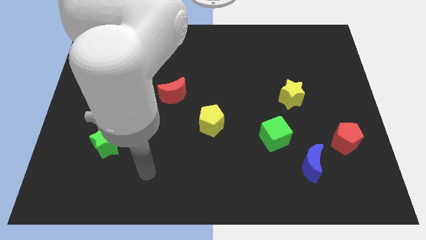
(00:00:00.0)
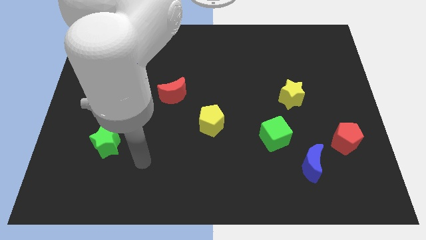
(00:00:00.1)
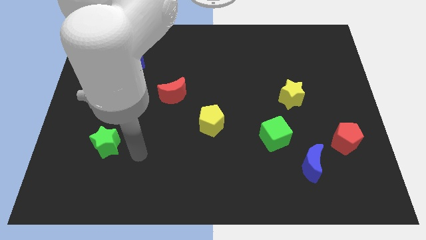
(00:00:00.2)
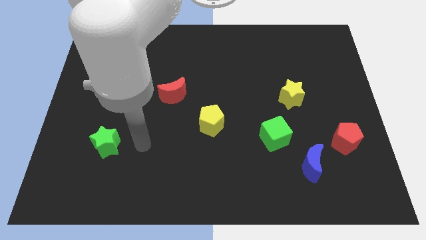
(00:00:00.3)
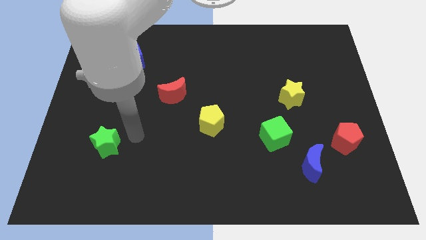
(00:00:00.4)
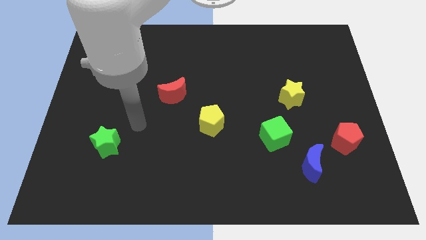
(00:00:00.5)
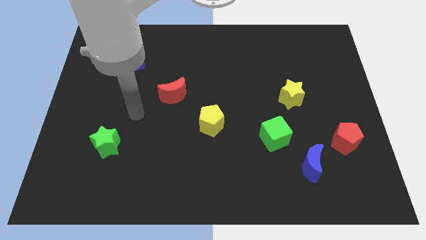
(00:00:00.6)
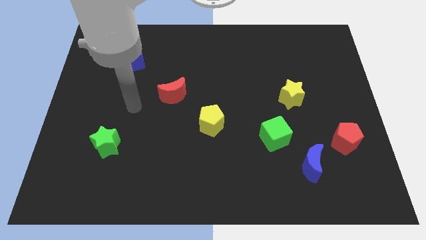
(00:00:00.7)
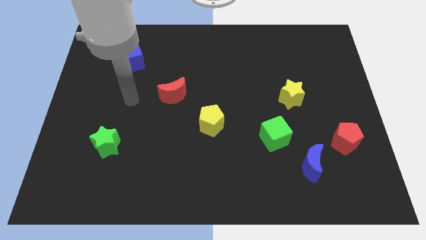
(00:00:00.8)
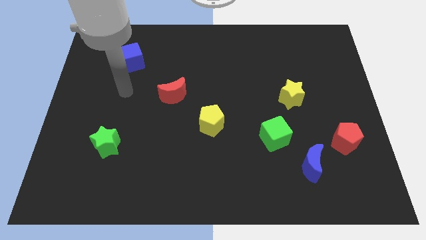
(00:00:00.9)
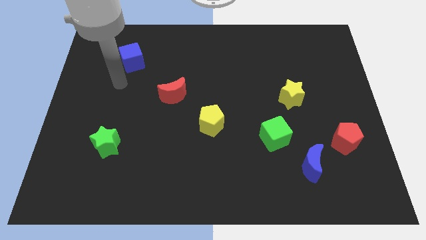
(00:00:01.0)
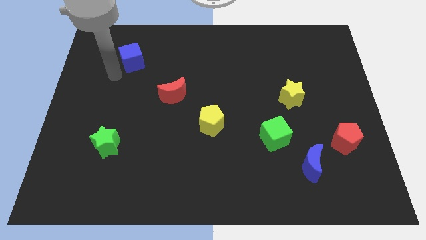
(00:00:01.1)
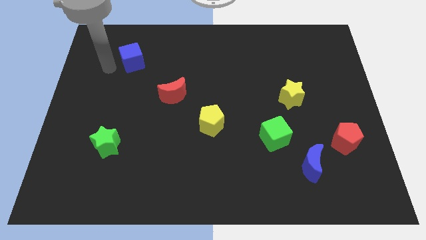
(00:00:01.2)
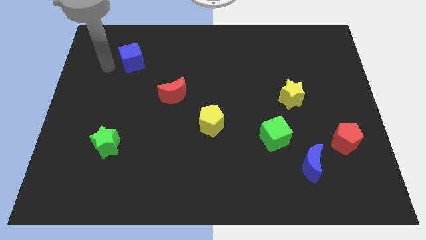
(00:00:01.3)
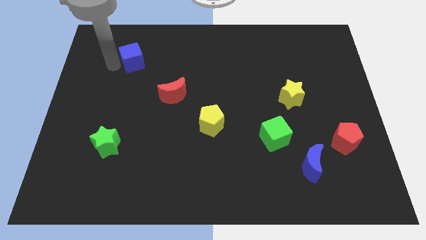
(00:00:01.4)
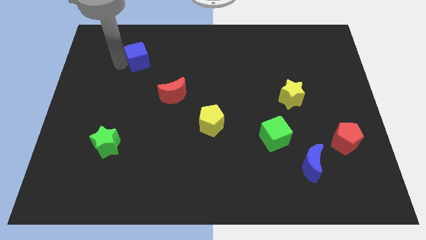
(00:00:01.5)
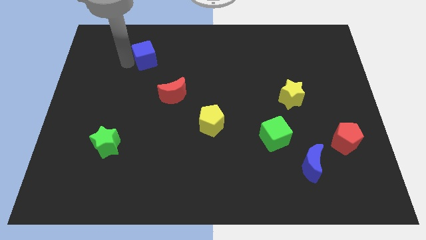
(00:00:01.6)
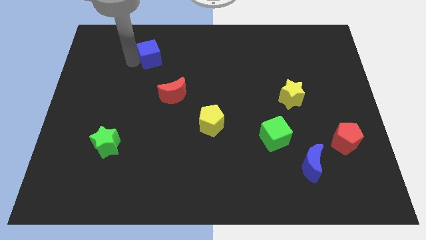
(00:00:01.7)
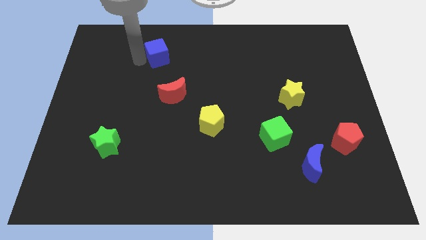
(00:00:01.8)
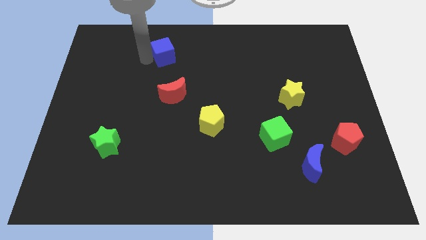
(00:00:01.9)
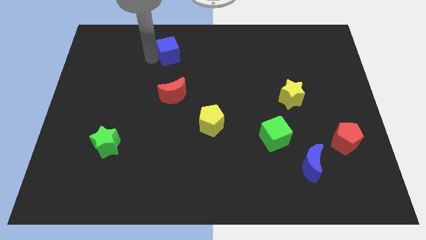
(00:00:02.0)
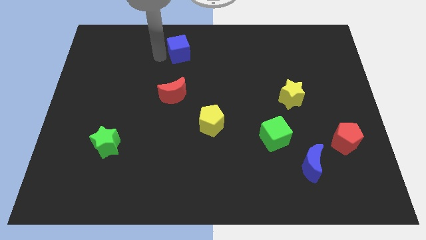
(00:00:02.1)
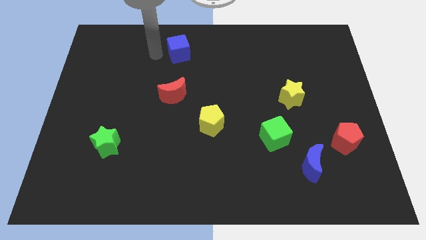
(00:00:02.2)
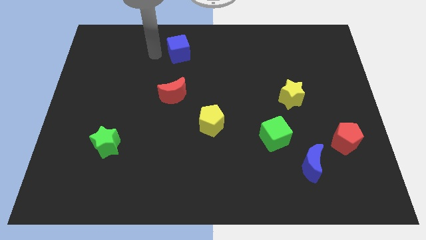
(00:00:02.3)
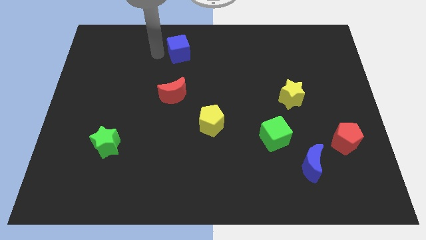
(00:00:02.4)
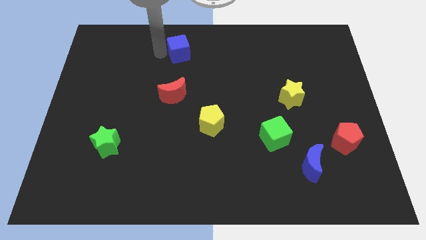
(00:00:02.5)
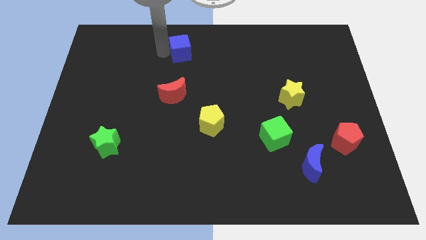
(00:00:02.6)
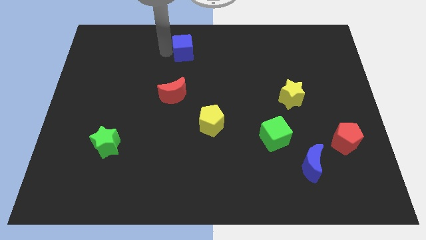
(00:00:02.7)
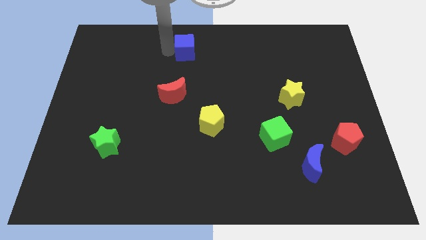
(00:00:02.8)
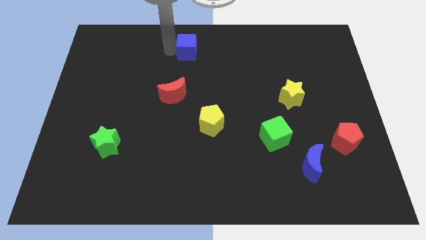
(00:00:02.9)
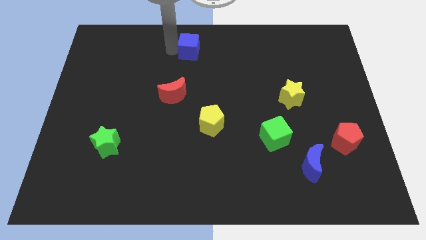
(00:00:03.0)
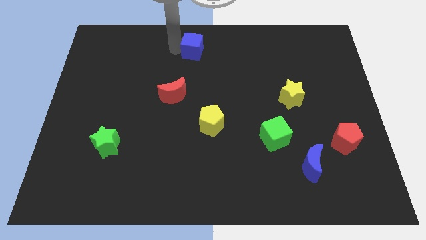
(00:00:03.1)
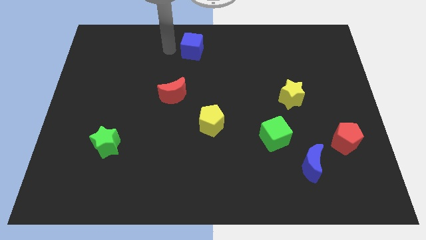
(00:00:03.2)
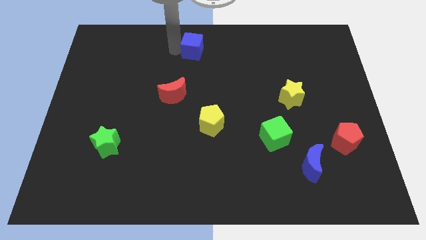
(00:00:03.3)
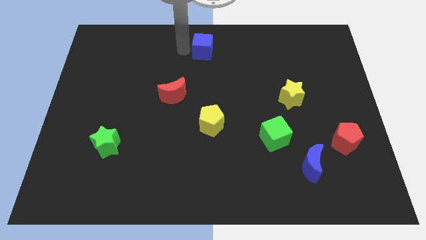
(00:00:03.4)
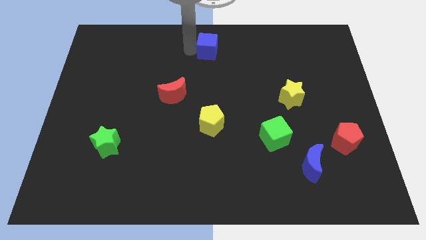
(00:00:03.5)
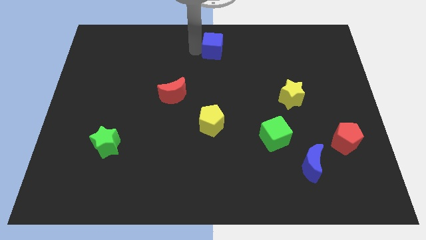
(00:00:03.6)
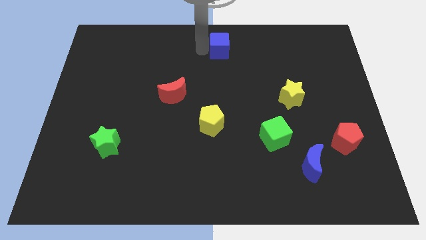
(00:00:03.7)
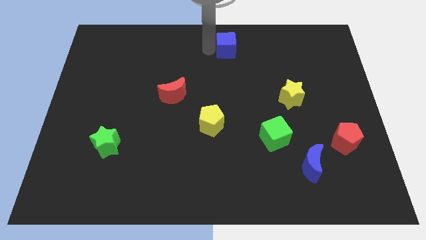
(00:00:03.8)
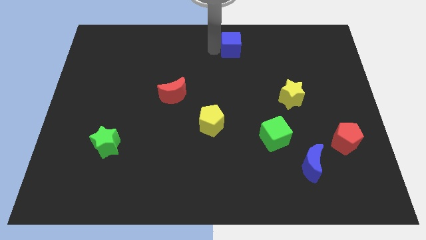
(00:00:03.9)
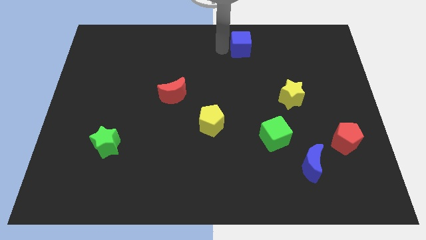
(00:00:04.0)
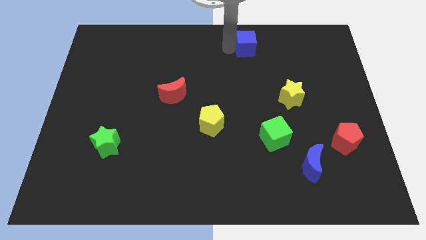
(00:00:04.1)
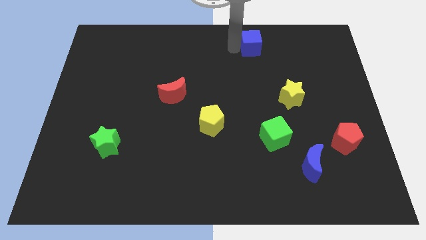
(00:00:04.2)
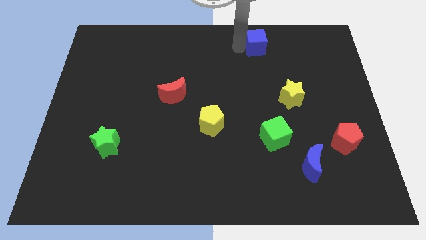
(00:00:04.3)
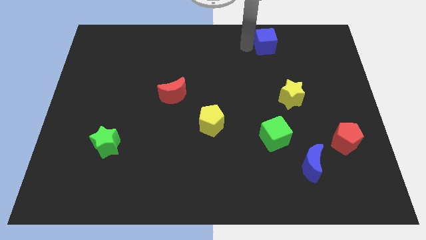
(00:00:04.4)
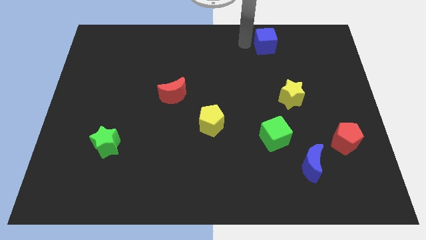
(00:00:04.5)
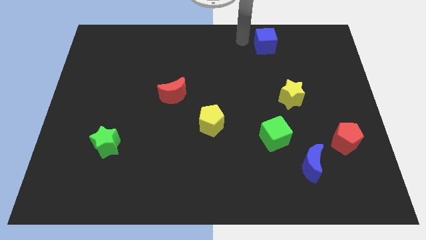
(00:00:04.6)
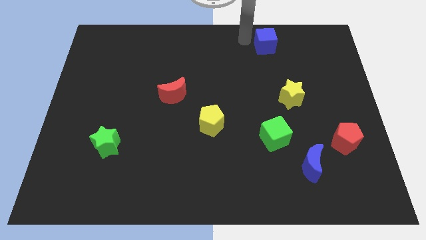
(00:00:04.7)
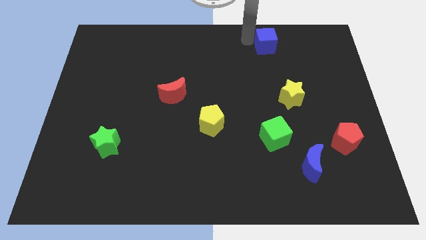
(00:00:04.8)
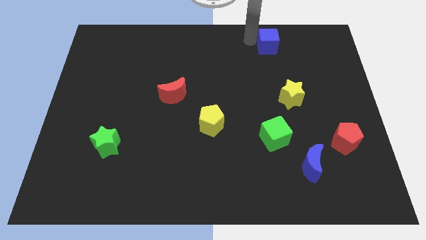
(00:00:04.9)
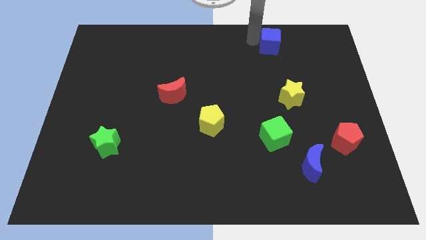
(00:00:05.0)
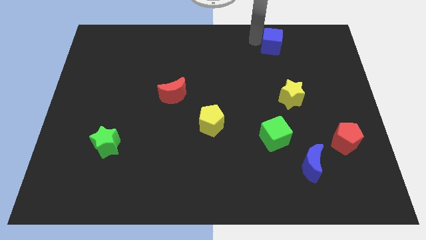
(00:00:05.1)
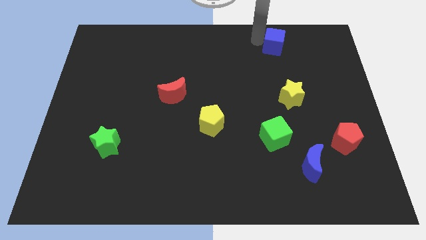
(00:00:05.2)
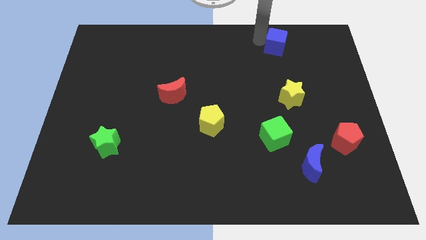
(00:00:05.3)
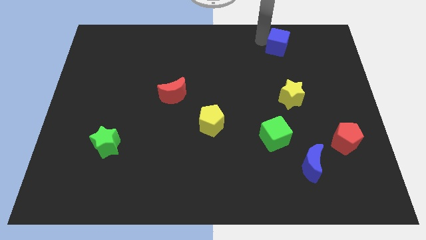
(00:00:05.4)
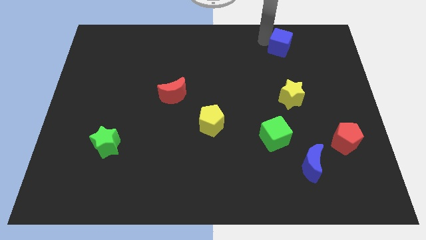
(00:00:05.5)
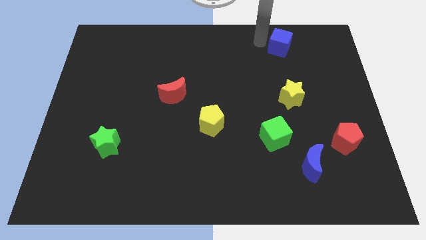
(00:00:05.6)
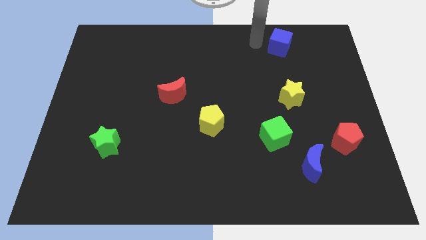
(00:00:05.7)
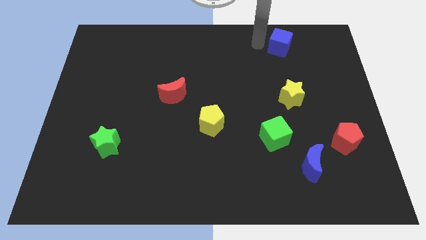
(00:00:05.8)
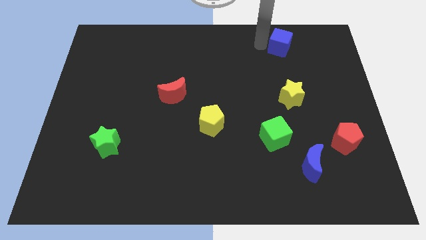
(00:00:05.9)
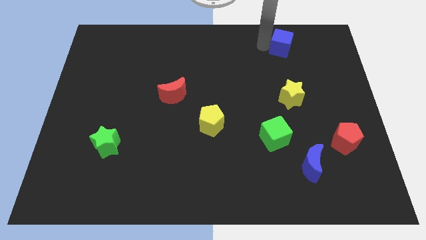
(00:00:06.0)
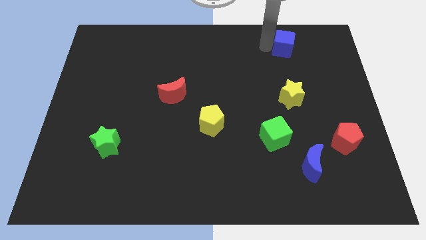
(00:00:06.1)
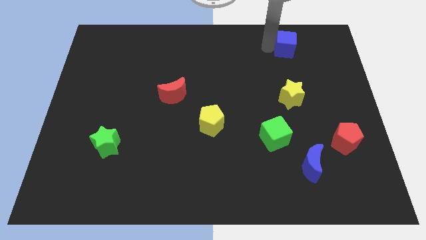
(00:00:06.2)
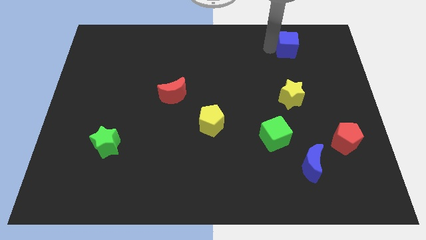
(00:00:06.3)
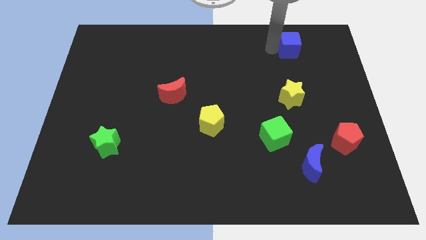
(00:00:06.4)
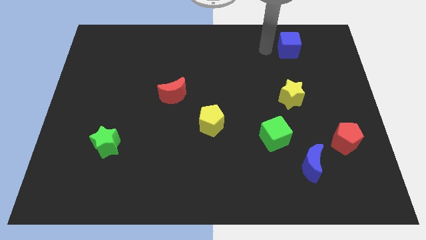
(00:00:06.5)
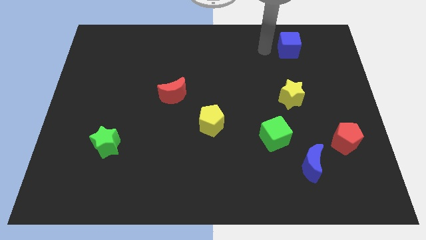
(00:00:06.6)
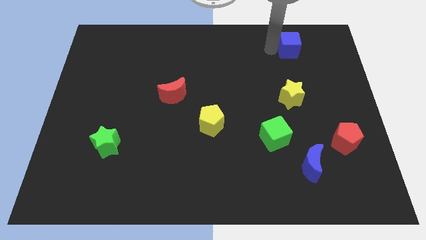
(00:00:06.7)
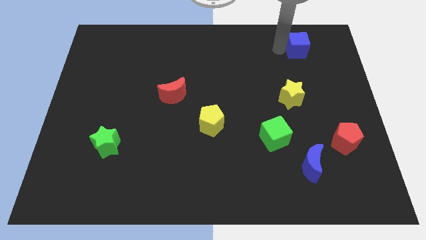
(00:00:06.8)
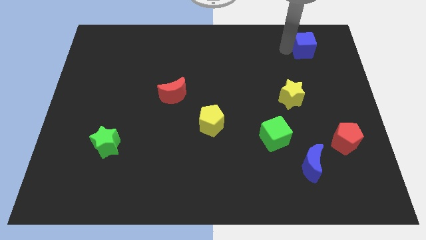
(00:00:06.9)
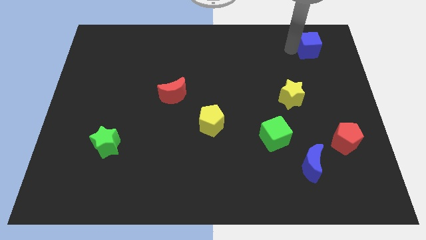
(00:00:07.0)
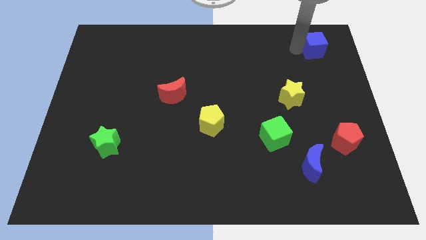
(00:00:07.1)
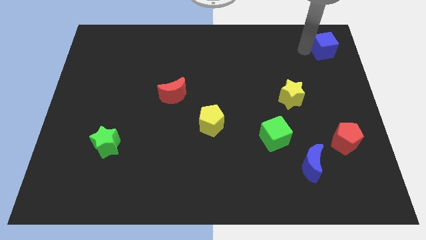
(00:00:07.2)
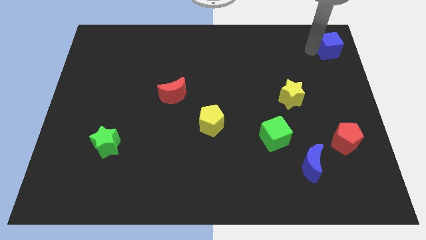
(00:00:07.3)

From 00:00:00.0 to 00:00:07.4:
slide the blue cube to the top right
